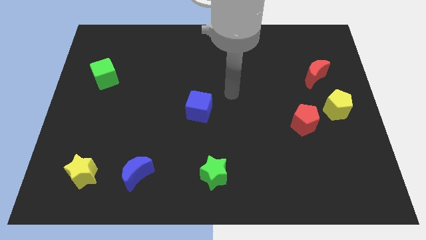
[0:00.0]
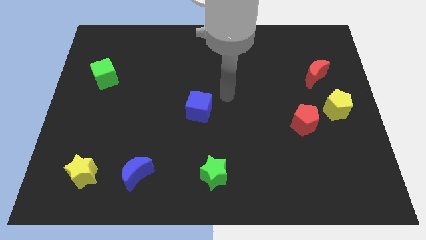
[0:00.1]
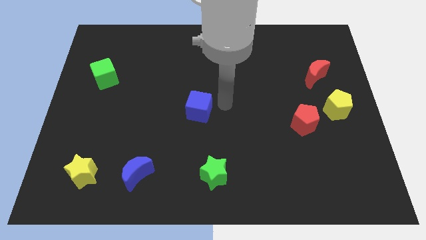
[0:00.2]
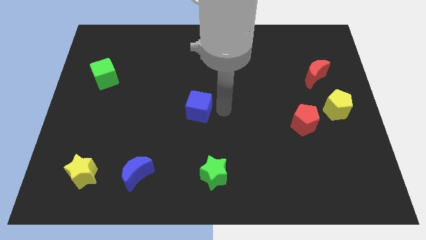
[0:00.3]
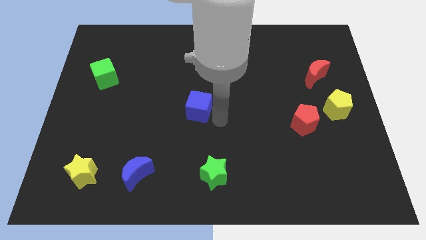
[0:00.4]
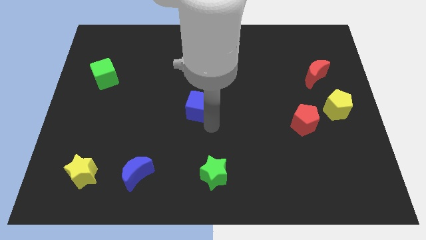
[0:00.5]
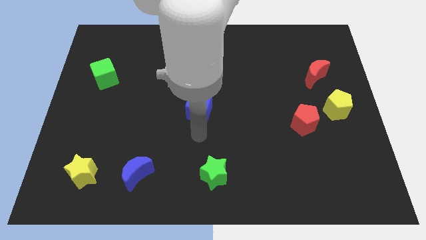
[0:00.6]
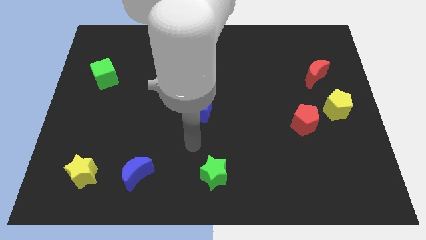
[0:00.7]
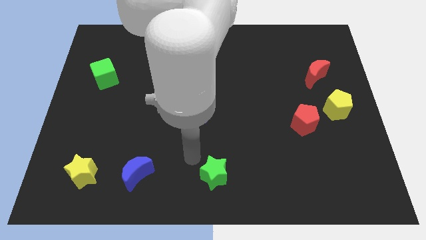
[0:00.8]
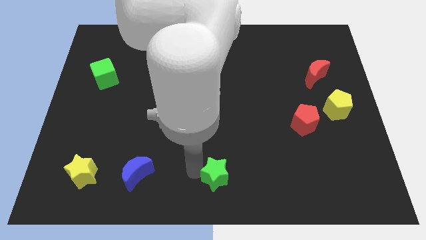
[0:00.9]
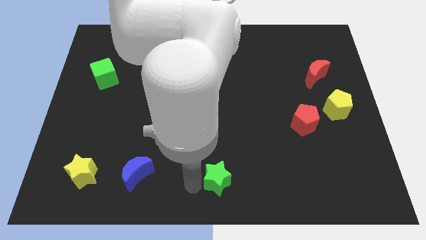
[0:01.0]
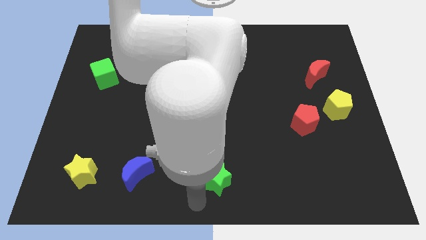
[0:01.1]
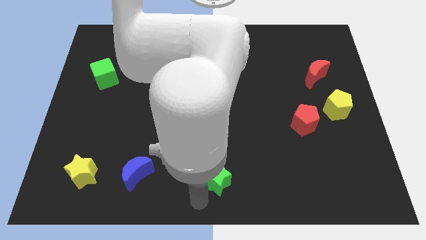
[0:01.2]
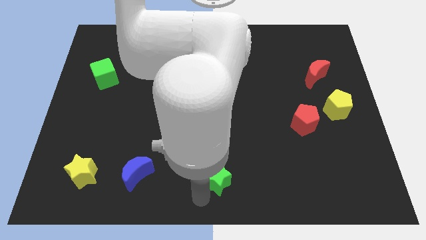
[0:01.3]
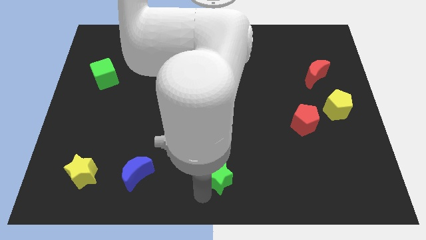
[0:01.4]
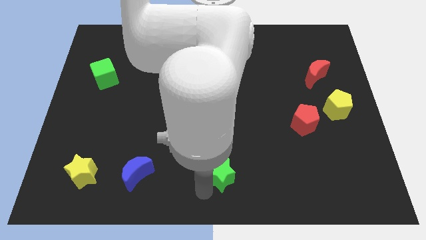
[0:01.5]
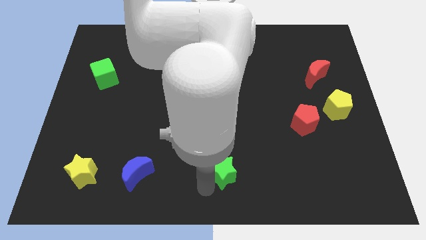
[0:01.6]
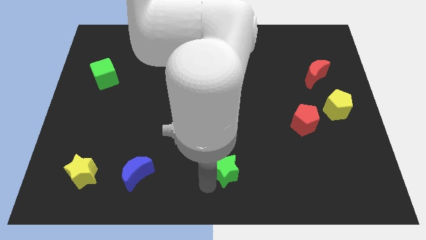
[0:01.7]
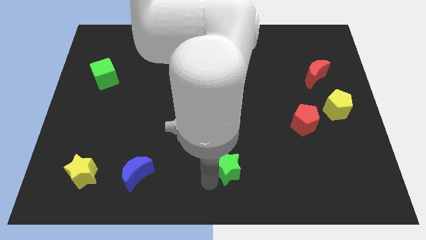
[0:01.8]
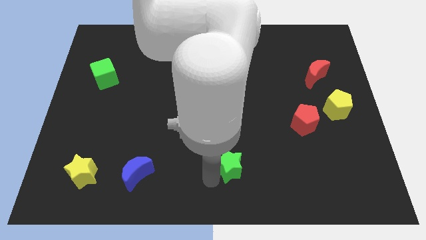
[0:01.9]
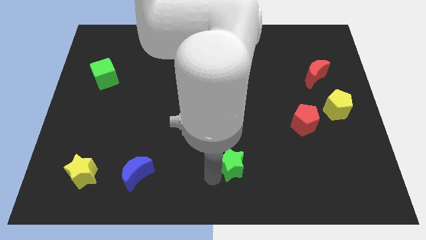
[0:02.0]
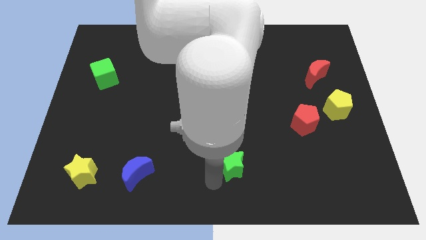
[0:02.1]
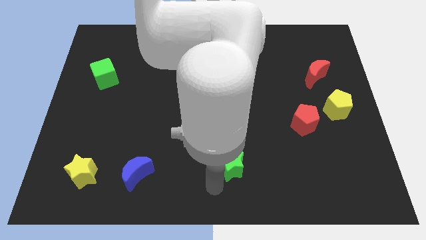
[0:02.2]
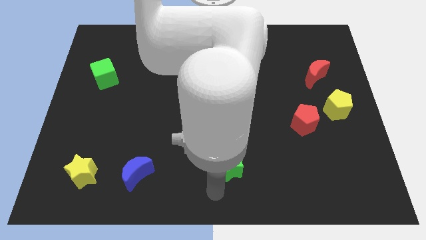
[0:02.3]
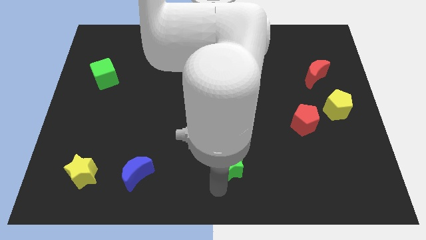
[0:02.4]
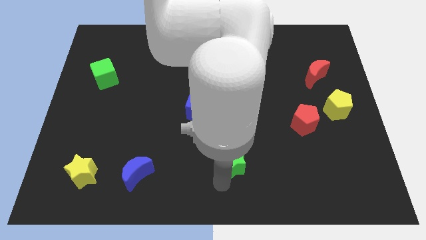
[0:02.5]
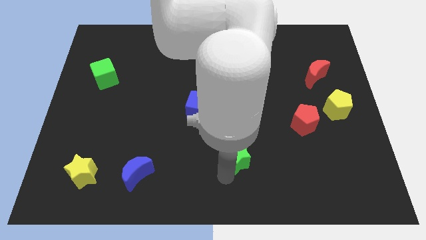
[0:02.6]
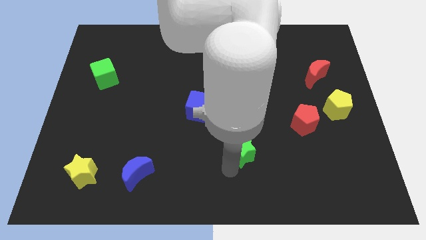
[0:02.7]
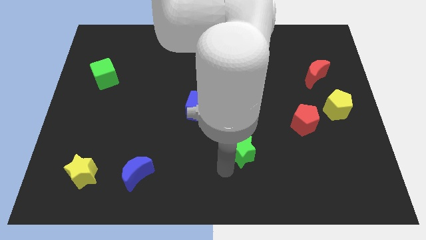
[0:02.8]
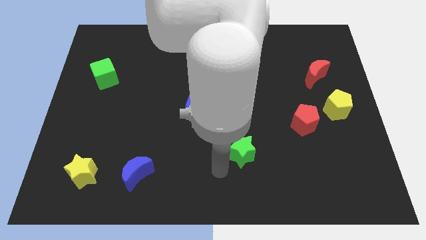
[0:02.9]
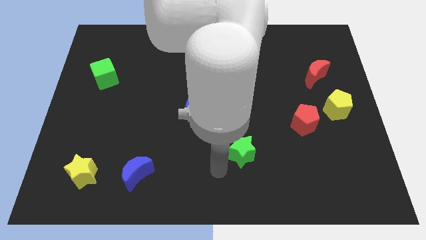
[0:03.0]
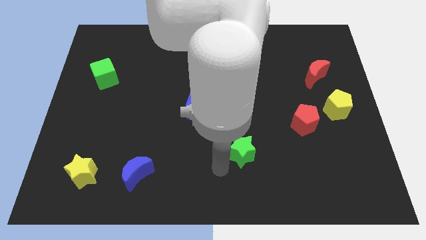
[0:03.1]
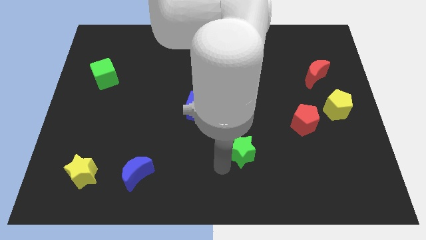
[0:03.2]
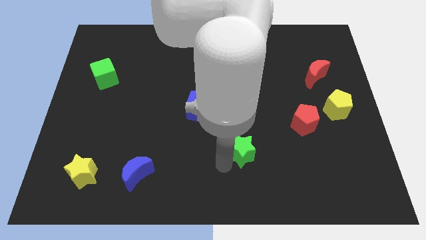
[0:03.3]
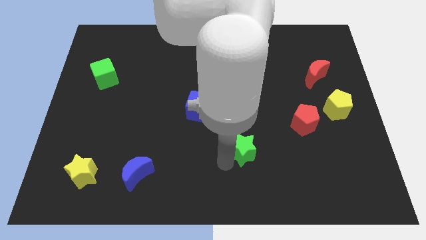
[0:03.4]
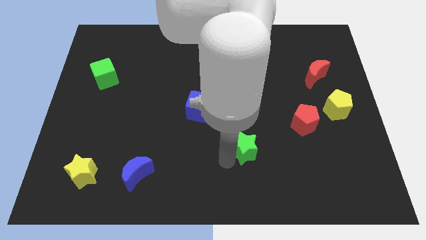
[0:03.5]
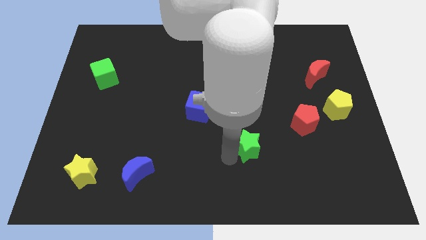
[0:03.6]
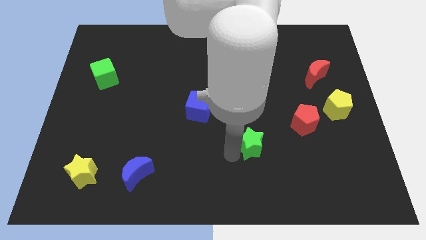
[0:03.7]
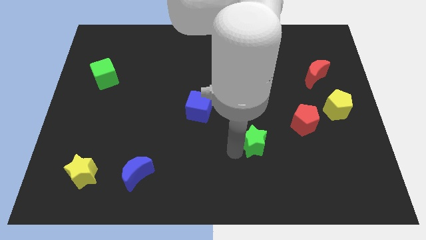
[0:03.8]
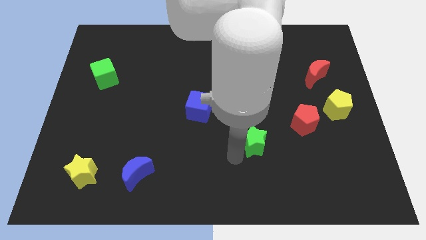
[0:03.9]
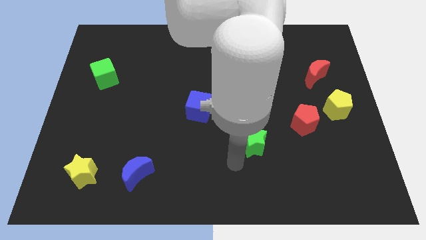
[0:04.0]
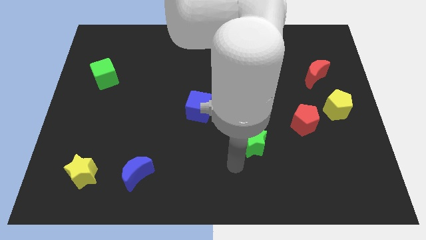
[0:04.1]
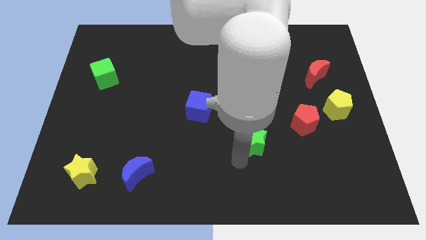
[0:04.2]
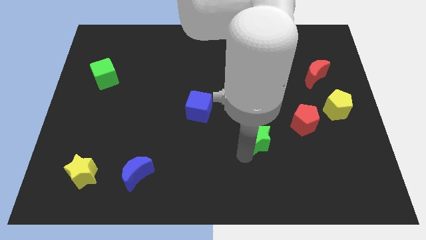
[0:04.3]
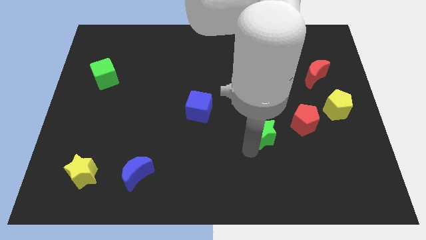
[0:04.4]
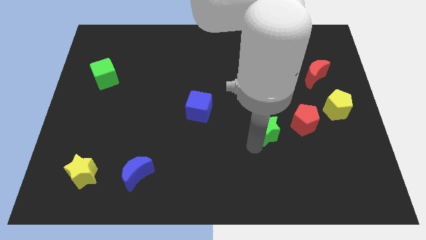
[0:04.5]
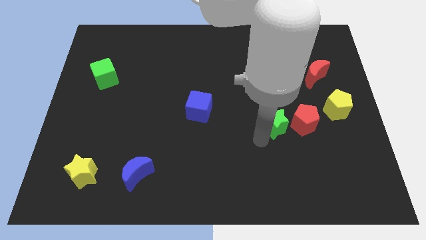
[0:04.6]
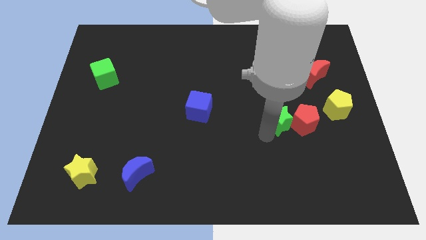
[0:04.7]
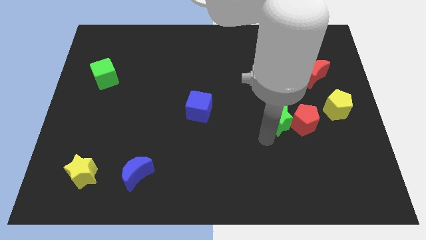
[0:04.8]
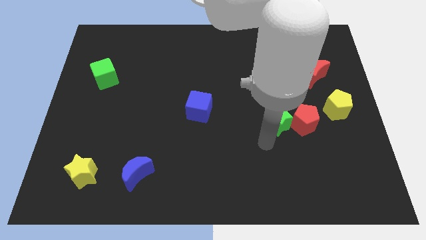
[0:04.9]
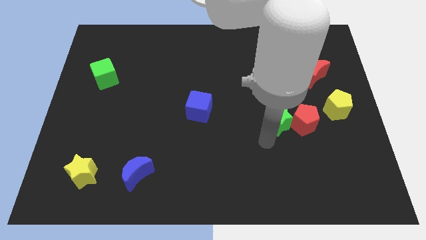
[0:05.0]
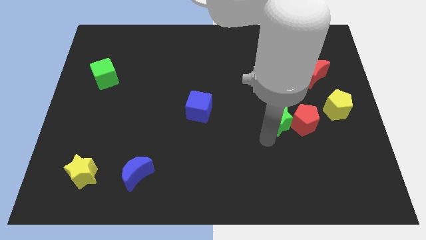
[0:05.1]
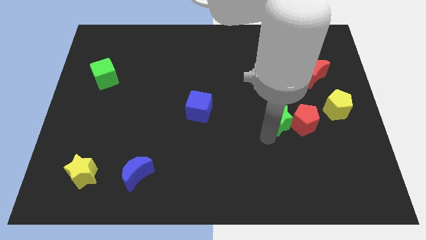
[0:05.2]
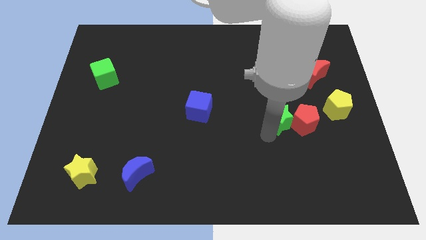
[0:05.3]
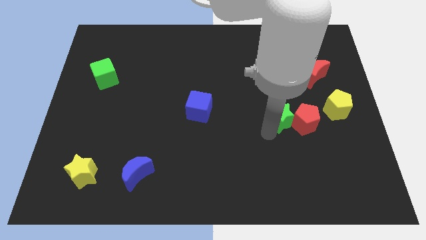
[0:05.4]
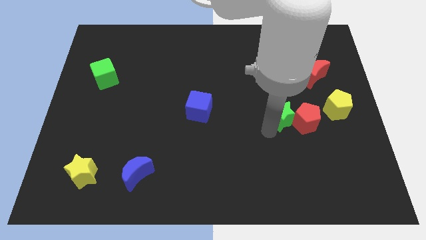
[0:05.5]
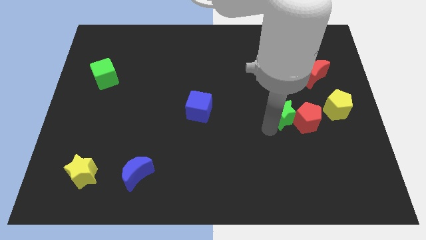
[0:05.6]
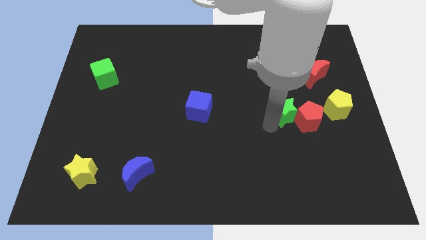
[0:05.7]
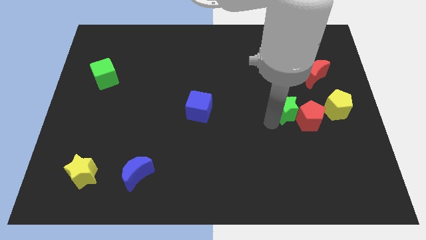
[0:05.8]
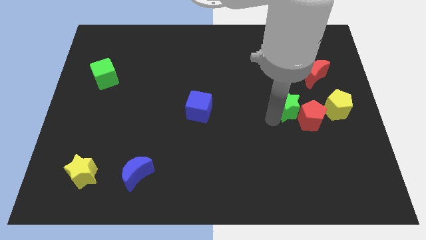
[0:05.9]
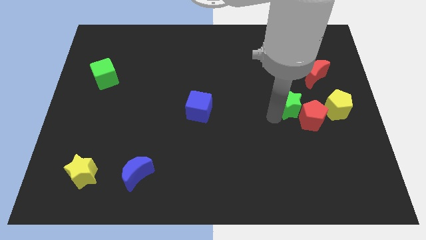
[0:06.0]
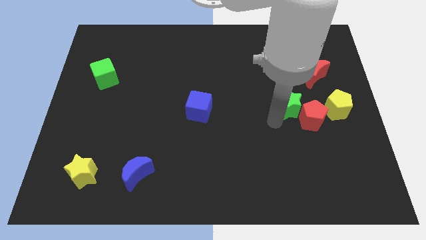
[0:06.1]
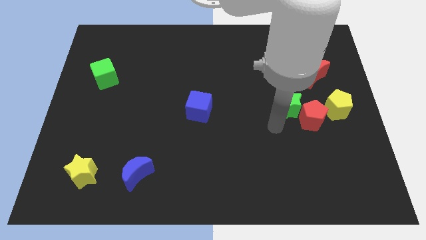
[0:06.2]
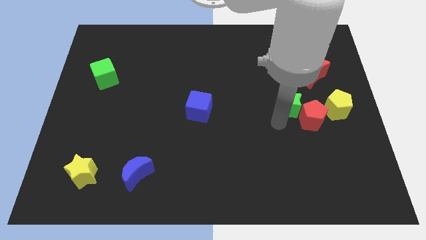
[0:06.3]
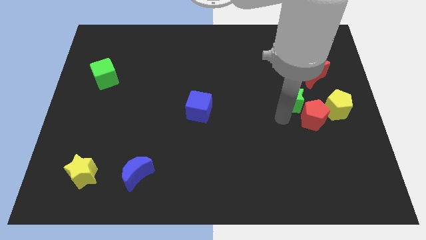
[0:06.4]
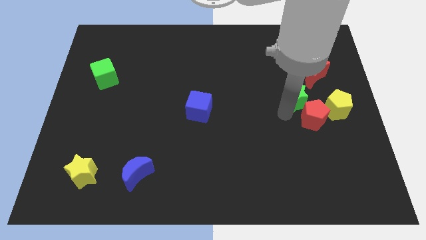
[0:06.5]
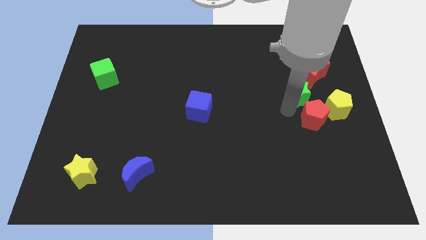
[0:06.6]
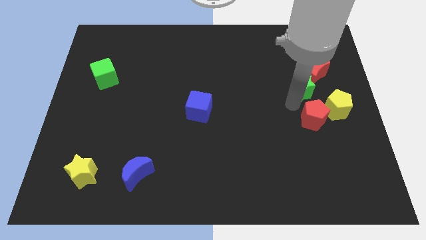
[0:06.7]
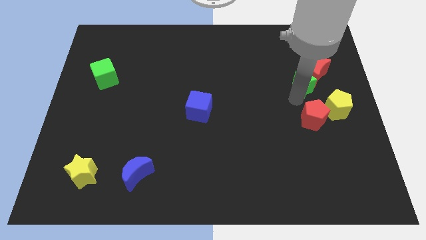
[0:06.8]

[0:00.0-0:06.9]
slide the green star towards the red moon
